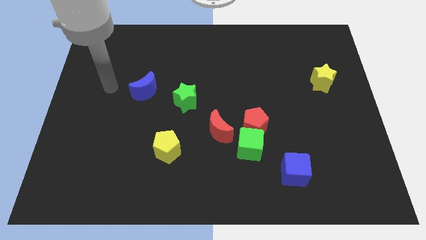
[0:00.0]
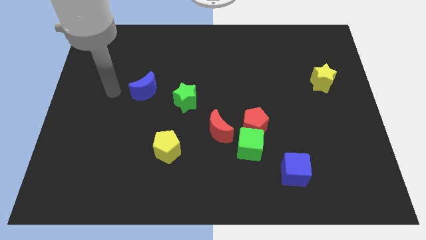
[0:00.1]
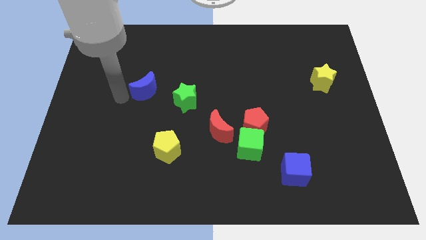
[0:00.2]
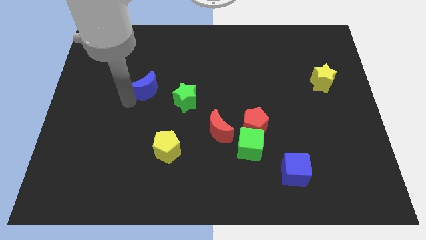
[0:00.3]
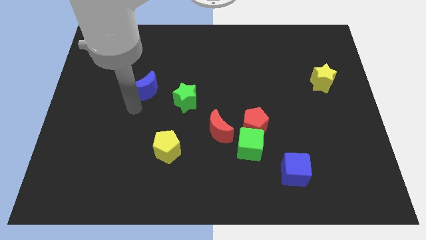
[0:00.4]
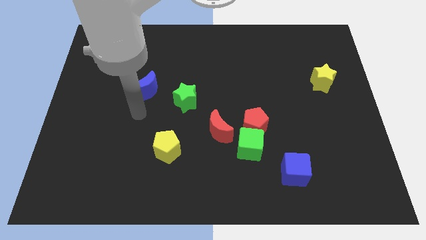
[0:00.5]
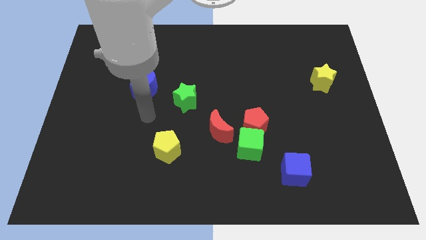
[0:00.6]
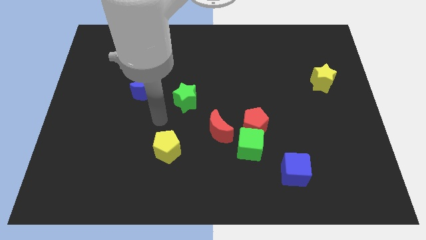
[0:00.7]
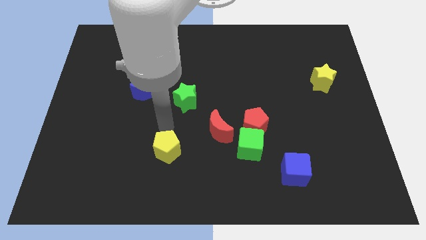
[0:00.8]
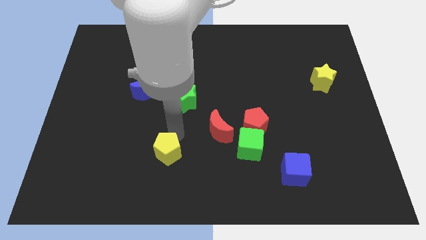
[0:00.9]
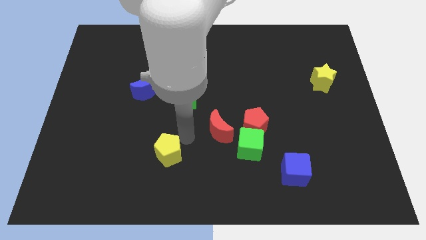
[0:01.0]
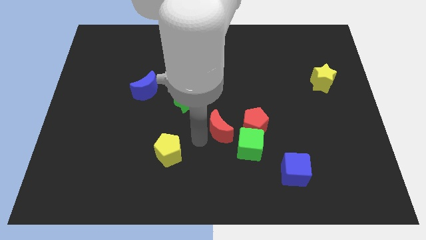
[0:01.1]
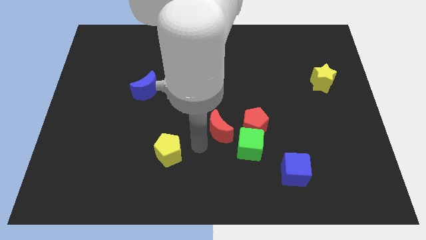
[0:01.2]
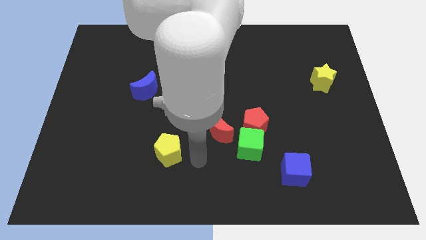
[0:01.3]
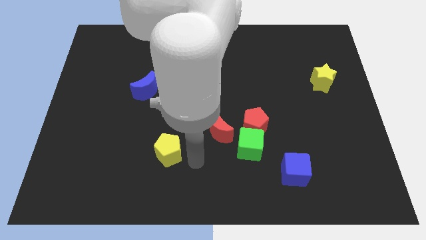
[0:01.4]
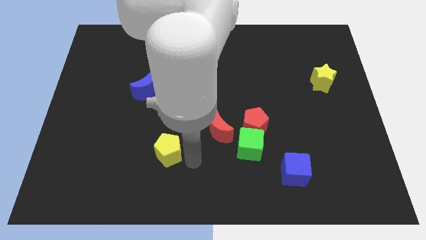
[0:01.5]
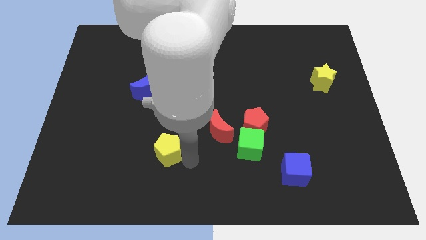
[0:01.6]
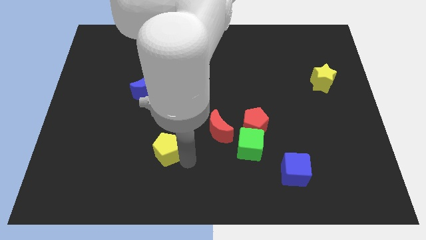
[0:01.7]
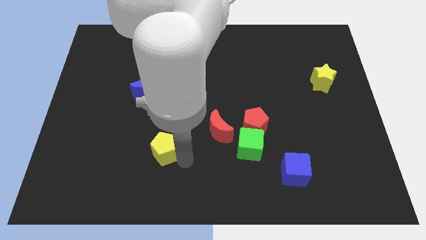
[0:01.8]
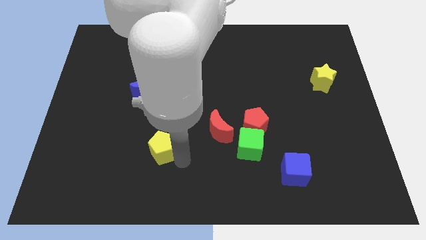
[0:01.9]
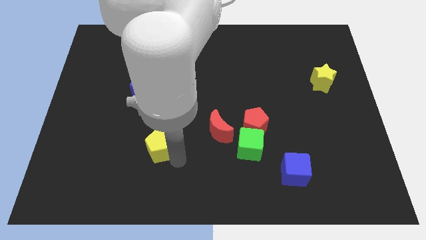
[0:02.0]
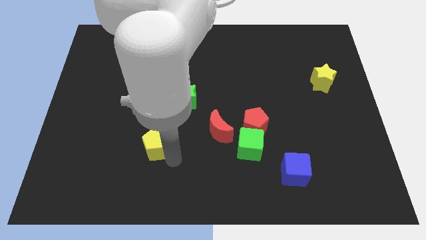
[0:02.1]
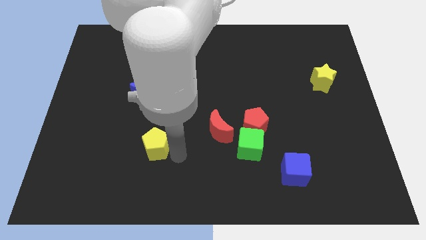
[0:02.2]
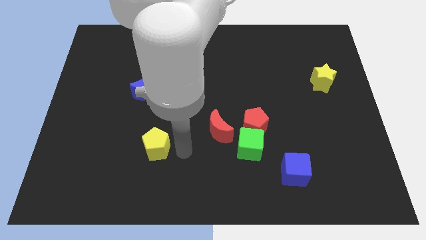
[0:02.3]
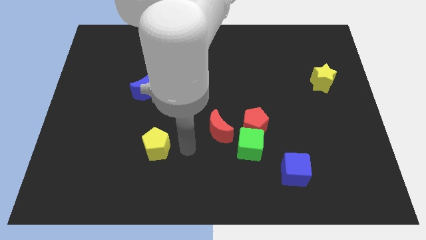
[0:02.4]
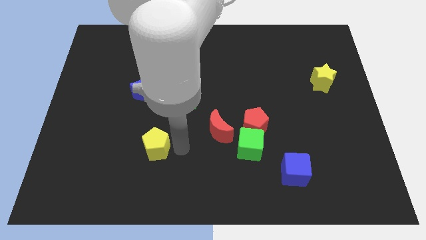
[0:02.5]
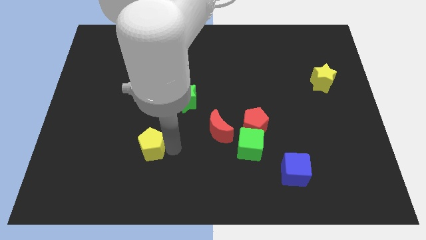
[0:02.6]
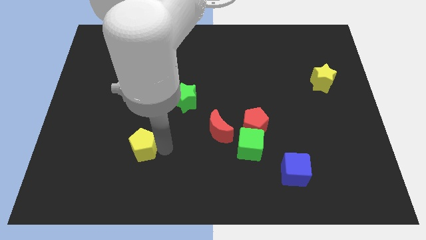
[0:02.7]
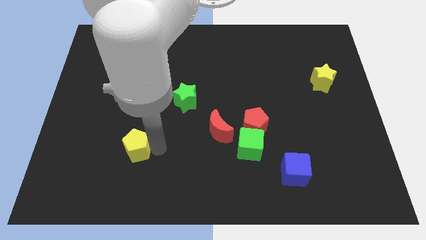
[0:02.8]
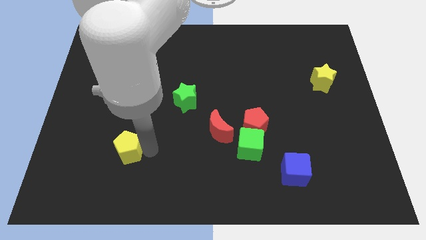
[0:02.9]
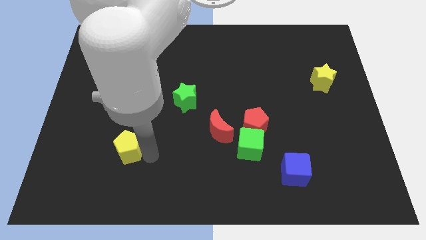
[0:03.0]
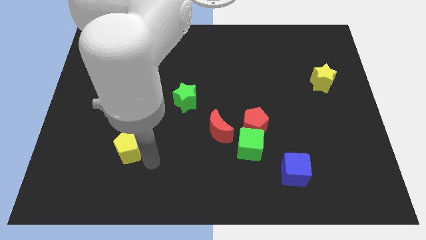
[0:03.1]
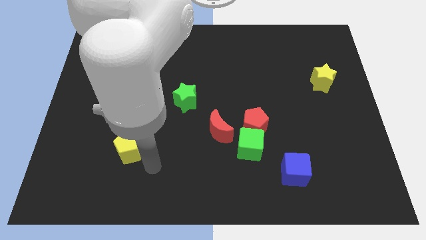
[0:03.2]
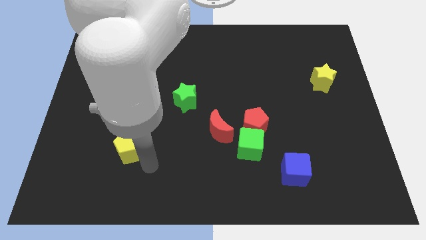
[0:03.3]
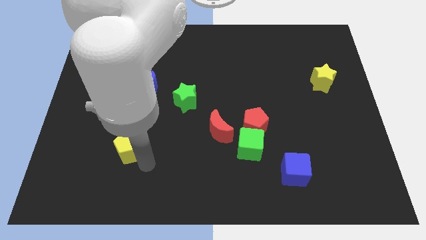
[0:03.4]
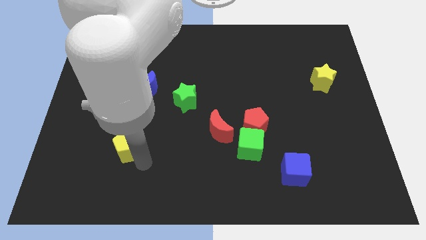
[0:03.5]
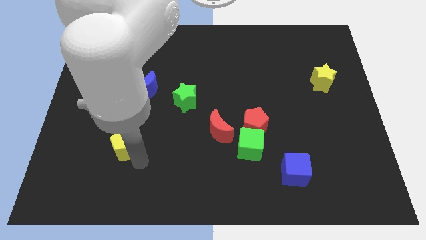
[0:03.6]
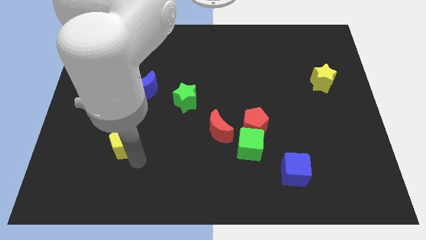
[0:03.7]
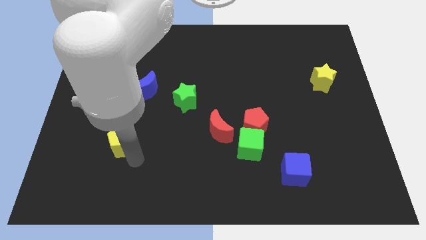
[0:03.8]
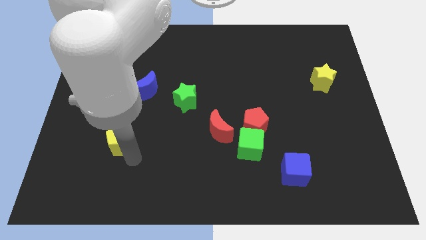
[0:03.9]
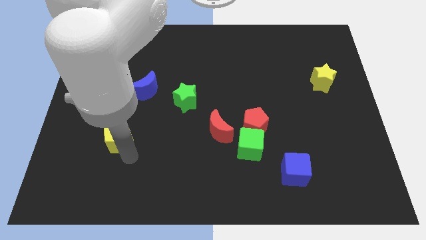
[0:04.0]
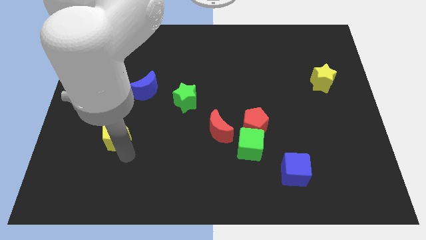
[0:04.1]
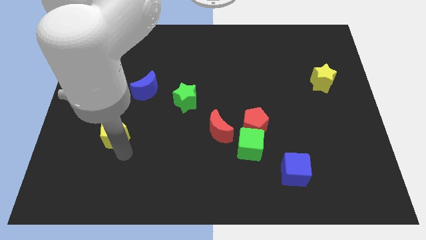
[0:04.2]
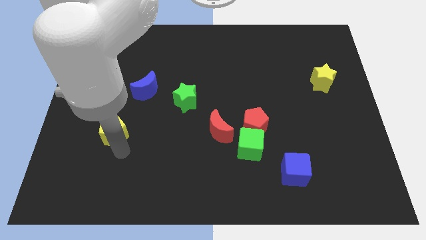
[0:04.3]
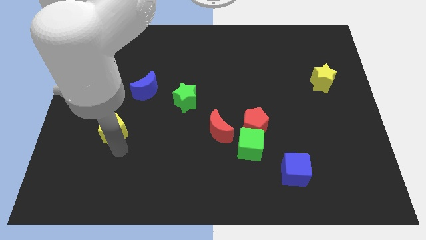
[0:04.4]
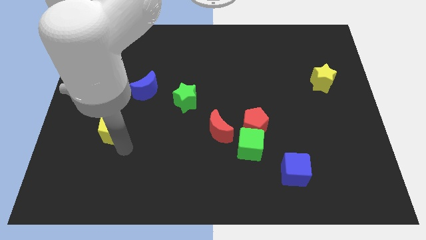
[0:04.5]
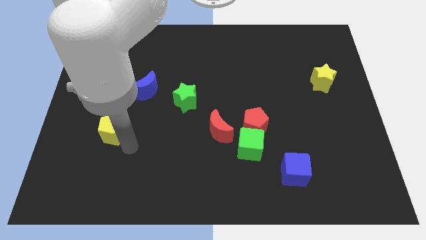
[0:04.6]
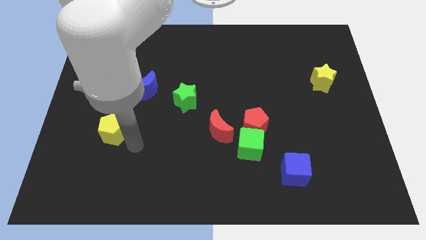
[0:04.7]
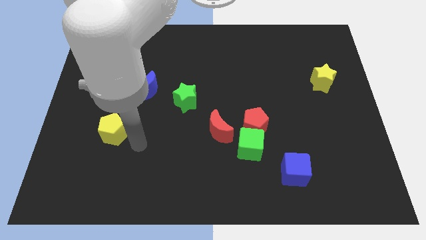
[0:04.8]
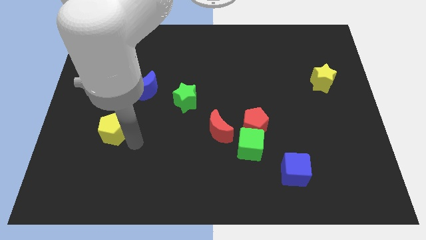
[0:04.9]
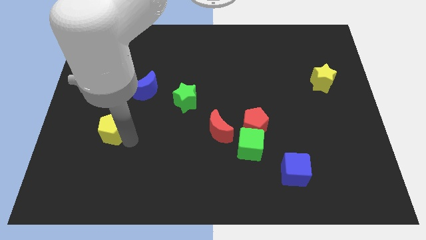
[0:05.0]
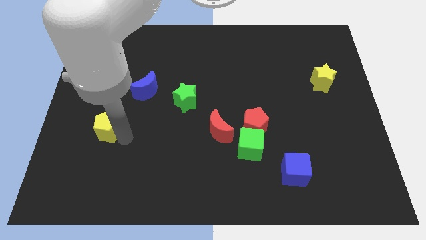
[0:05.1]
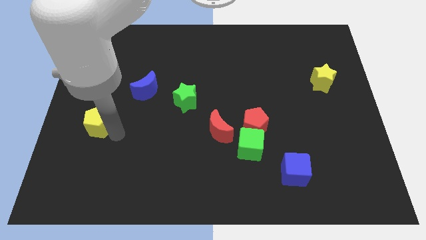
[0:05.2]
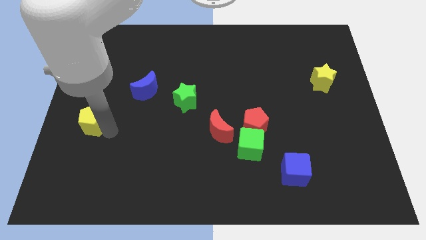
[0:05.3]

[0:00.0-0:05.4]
move the yellow pentagon to the left side

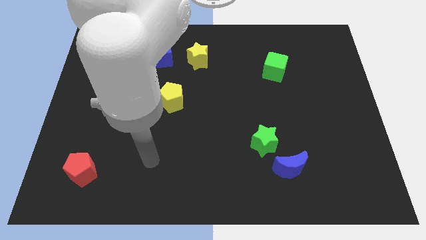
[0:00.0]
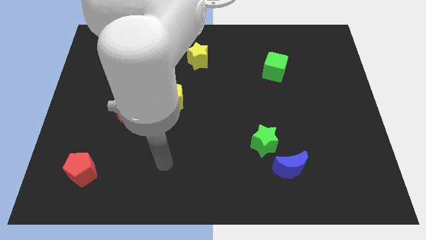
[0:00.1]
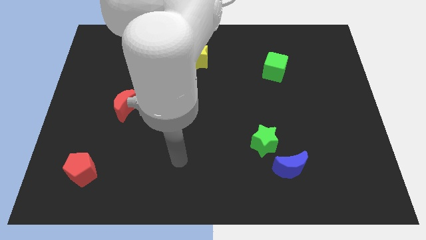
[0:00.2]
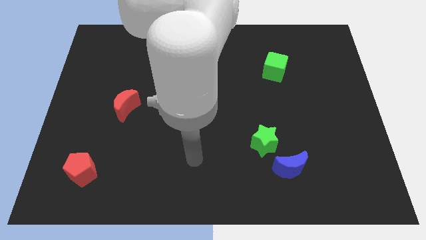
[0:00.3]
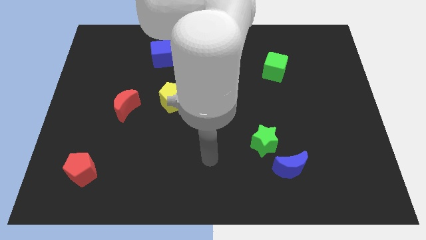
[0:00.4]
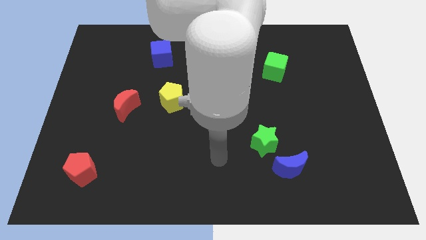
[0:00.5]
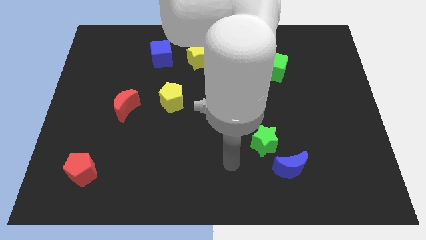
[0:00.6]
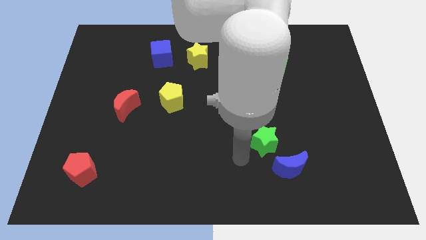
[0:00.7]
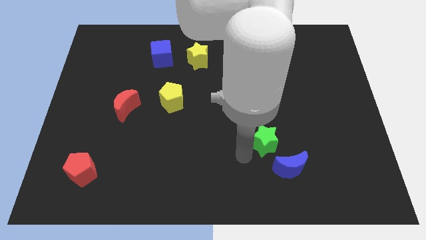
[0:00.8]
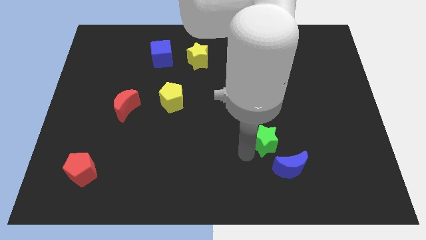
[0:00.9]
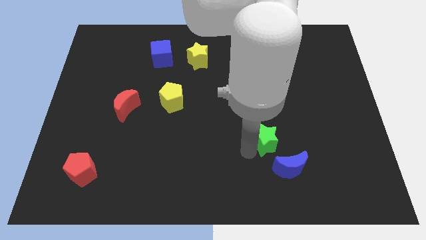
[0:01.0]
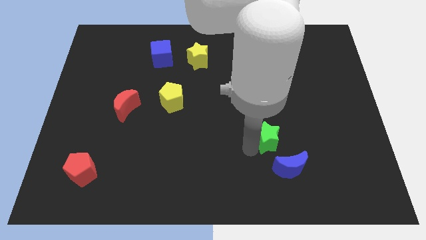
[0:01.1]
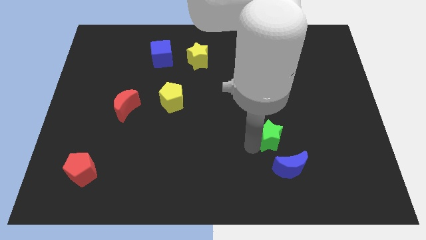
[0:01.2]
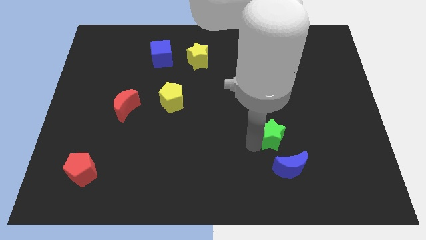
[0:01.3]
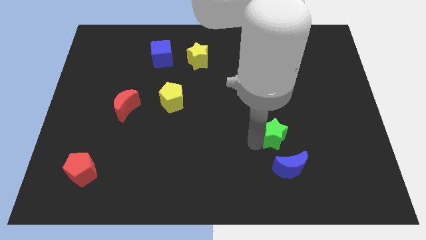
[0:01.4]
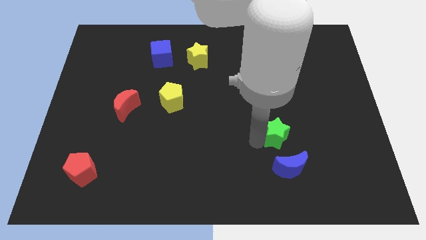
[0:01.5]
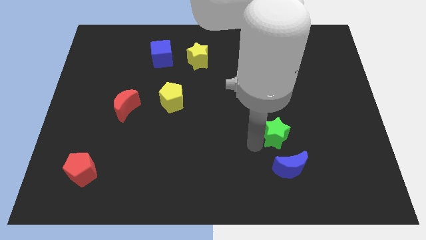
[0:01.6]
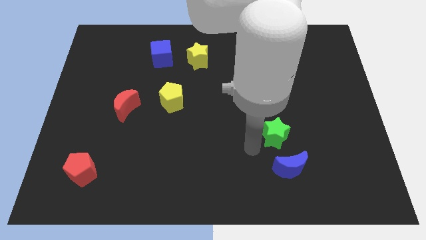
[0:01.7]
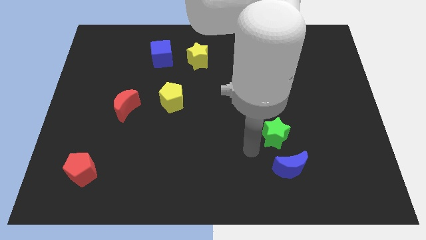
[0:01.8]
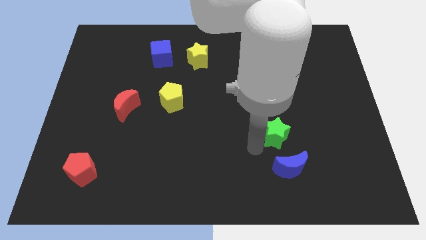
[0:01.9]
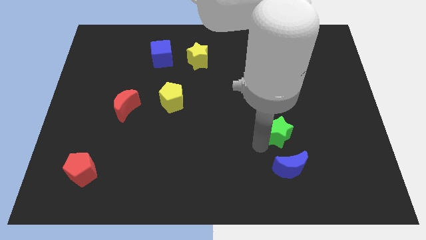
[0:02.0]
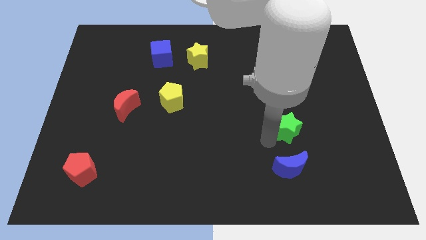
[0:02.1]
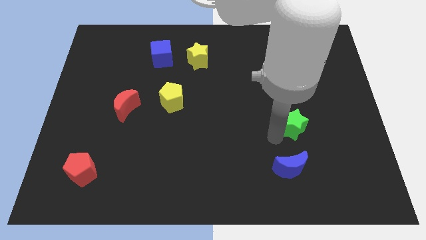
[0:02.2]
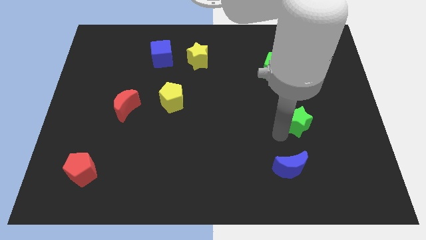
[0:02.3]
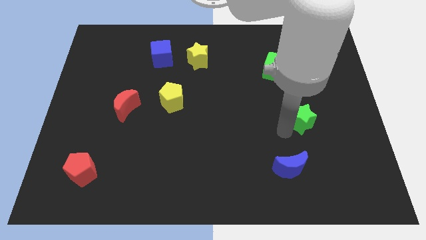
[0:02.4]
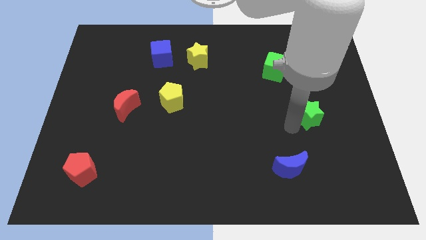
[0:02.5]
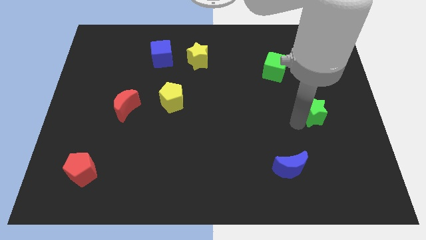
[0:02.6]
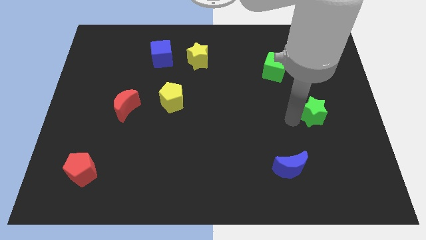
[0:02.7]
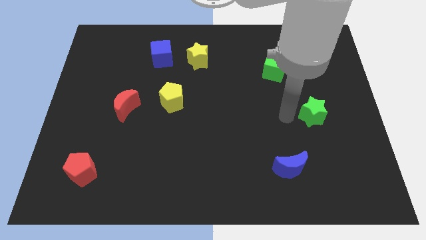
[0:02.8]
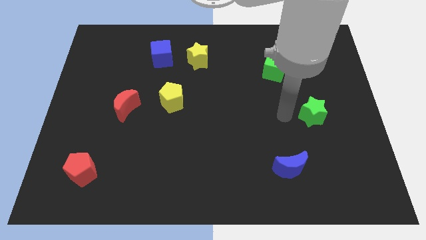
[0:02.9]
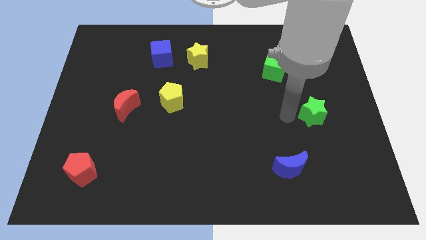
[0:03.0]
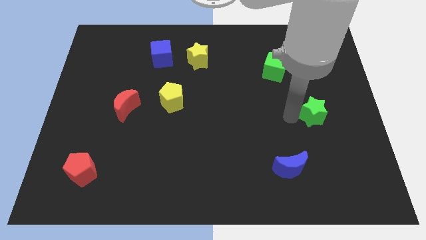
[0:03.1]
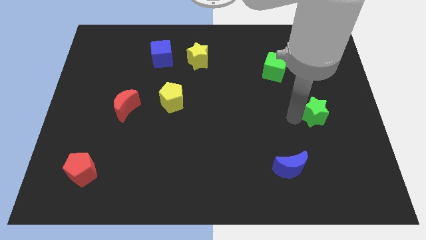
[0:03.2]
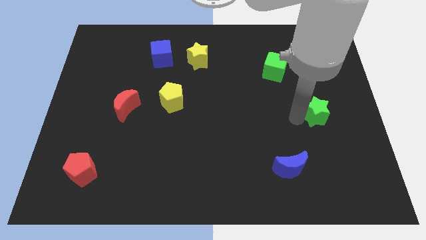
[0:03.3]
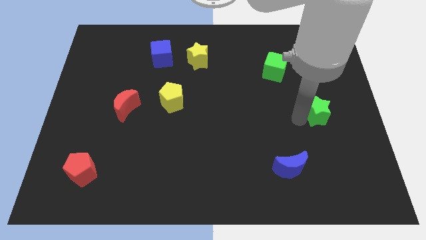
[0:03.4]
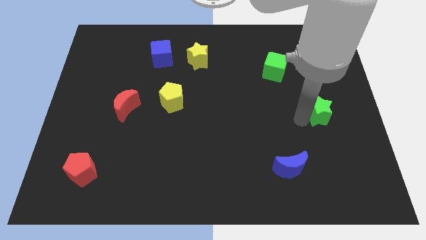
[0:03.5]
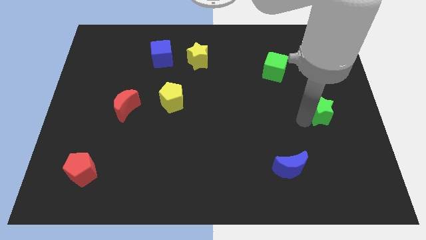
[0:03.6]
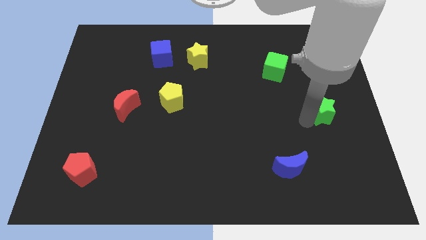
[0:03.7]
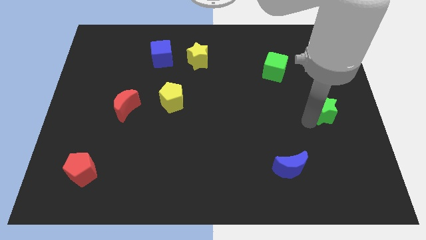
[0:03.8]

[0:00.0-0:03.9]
put the green star to the right side
